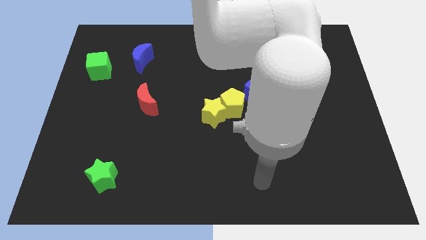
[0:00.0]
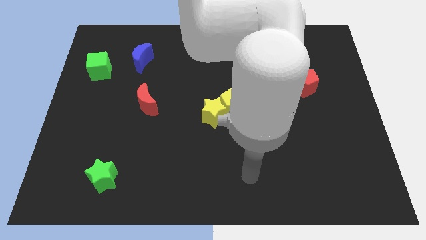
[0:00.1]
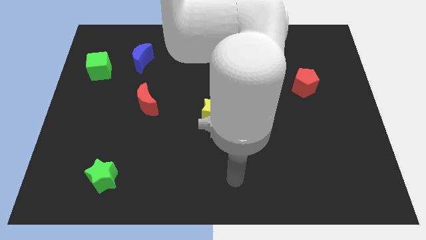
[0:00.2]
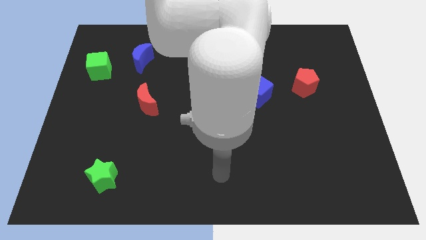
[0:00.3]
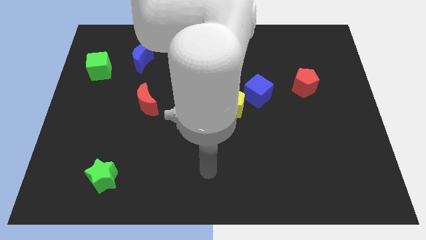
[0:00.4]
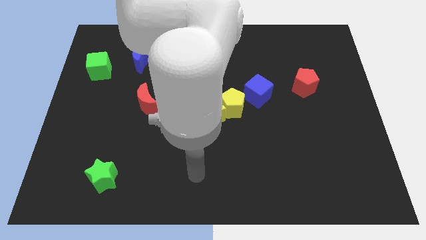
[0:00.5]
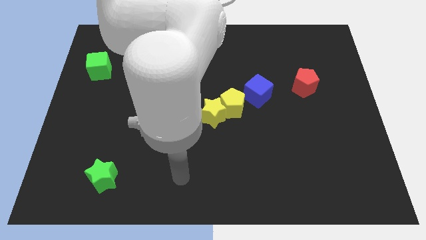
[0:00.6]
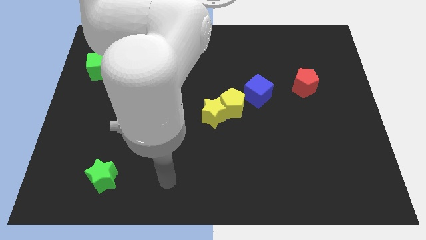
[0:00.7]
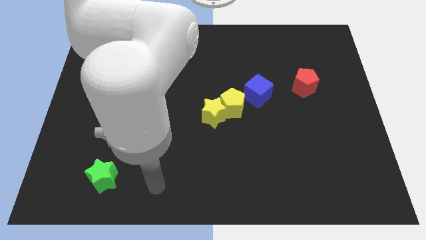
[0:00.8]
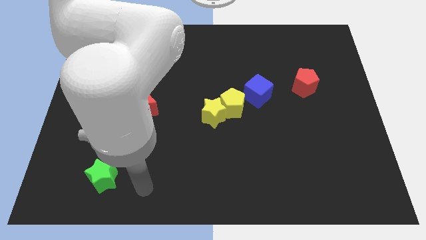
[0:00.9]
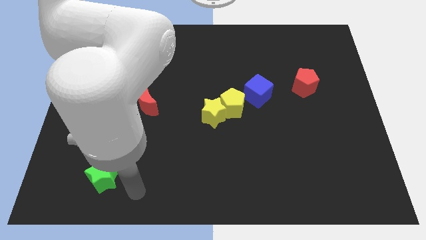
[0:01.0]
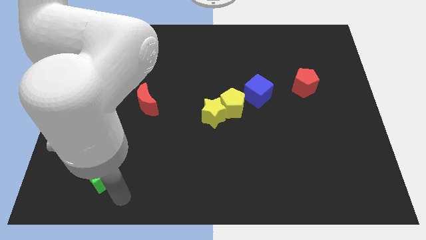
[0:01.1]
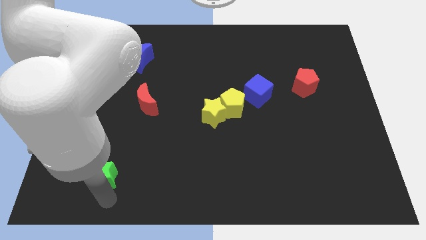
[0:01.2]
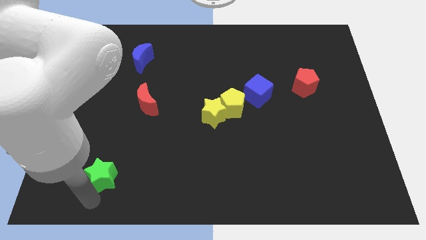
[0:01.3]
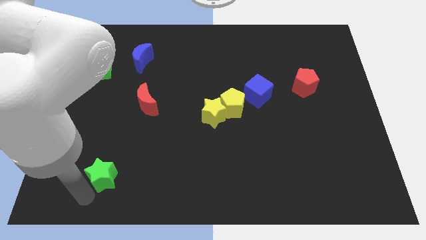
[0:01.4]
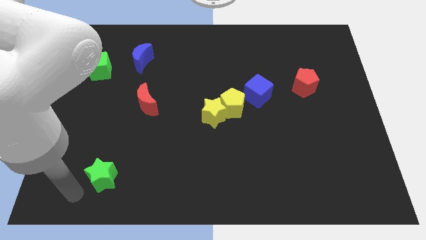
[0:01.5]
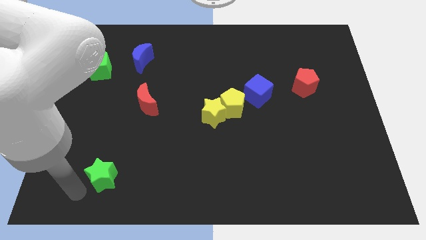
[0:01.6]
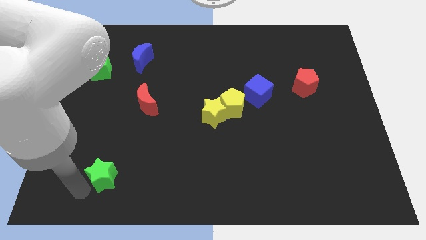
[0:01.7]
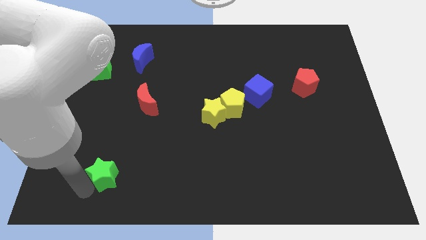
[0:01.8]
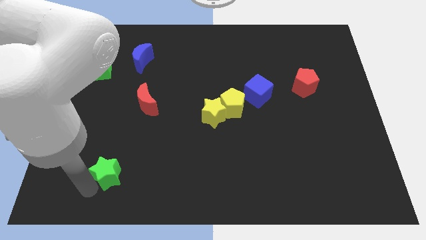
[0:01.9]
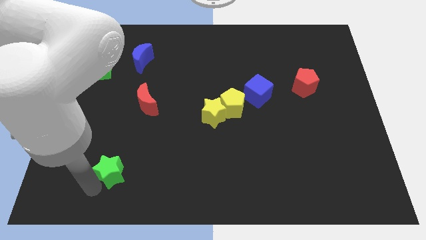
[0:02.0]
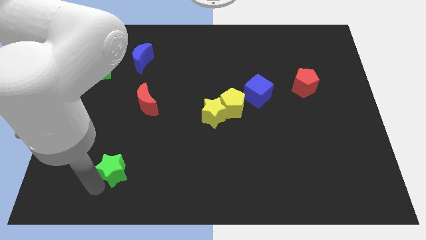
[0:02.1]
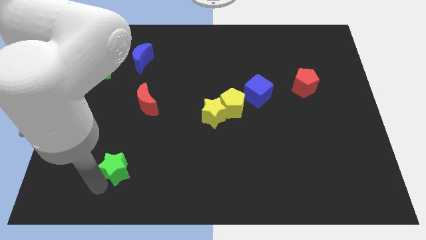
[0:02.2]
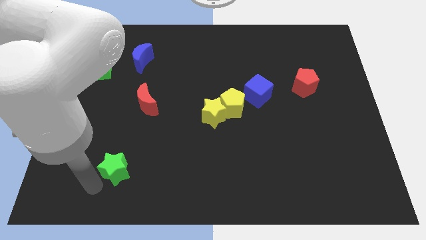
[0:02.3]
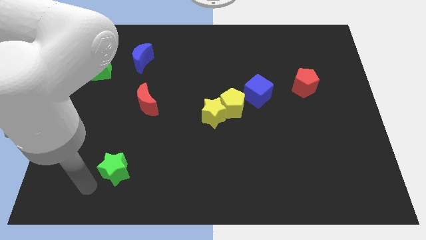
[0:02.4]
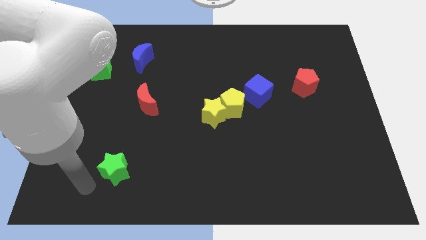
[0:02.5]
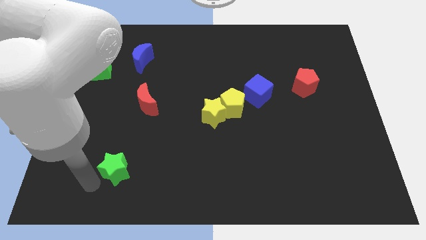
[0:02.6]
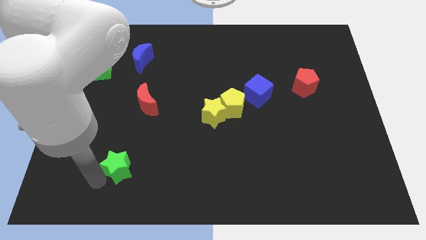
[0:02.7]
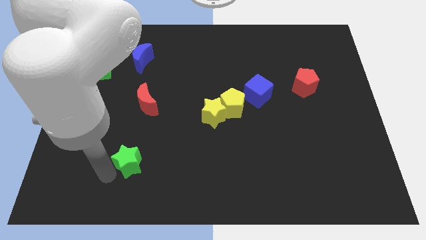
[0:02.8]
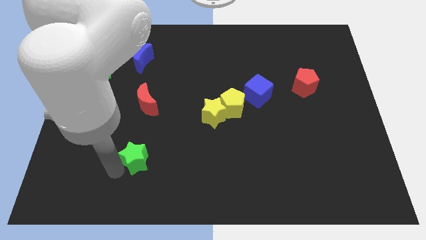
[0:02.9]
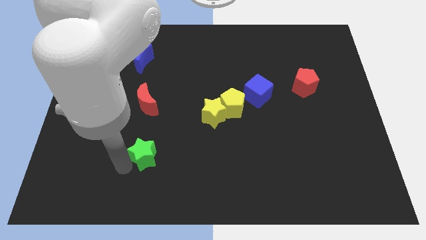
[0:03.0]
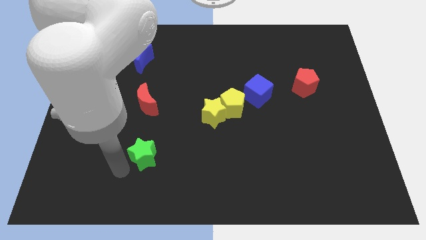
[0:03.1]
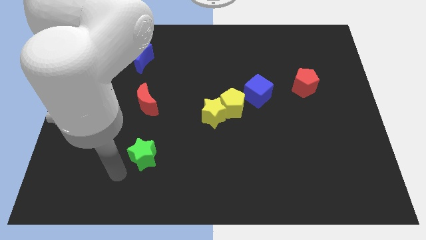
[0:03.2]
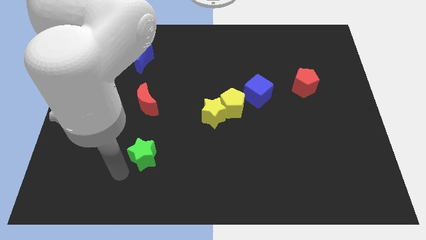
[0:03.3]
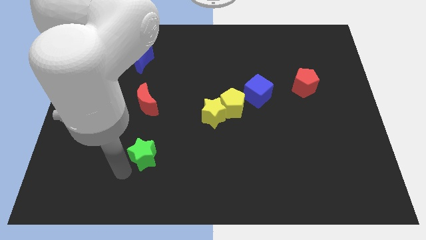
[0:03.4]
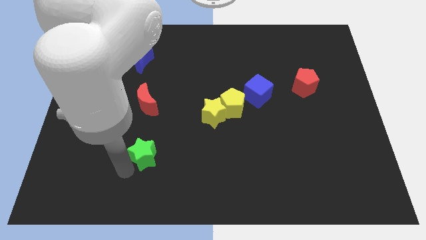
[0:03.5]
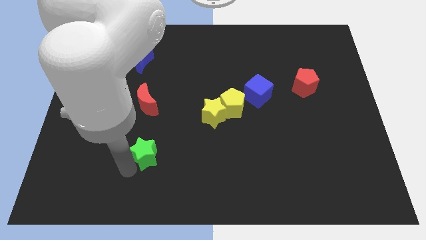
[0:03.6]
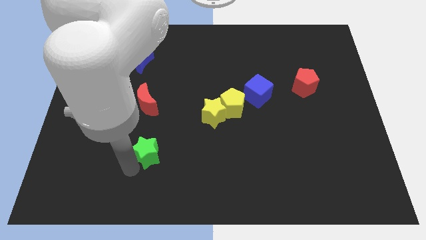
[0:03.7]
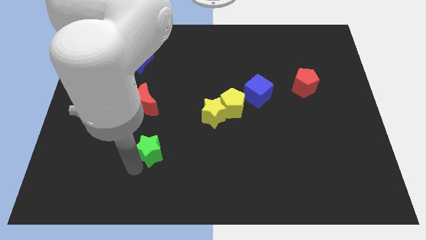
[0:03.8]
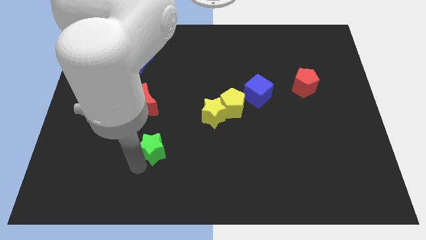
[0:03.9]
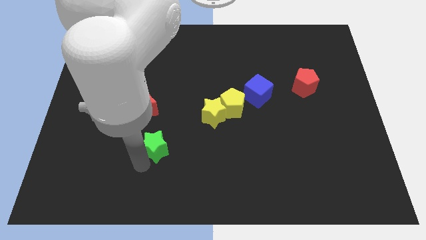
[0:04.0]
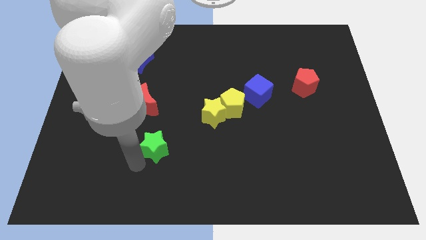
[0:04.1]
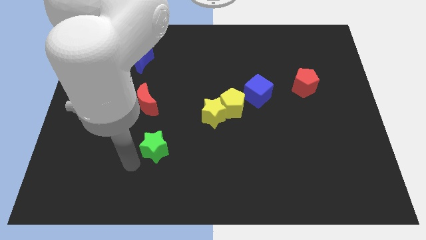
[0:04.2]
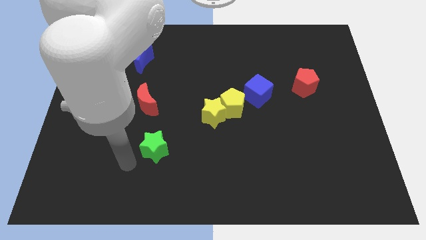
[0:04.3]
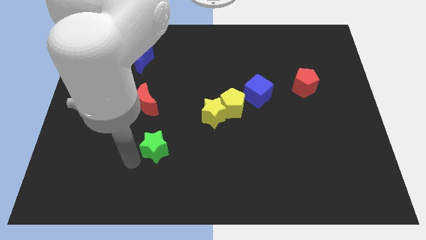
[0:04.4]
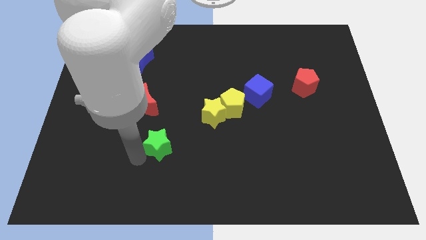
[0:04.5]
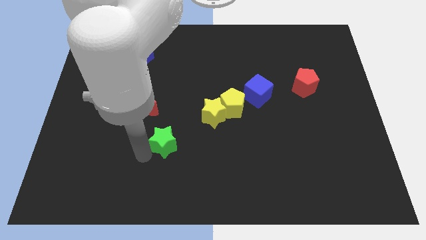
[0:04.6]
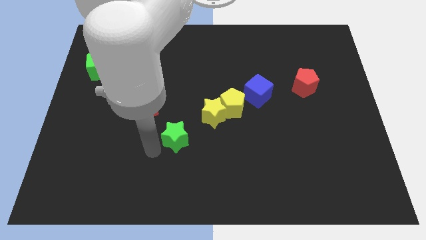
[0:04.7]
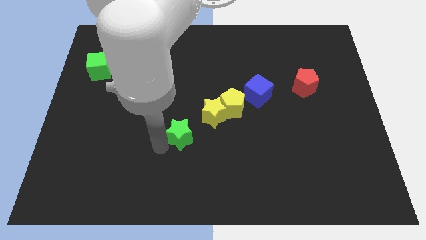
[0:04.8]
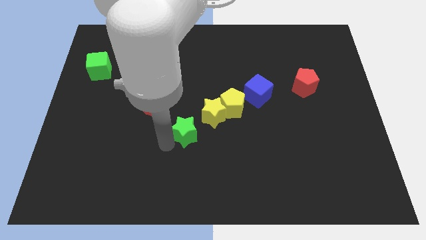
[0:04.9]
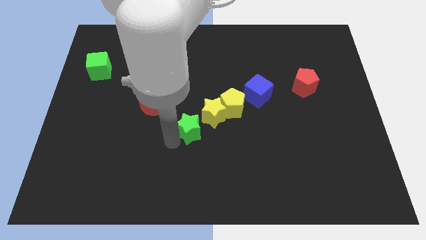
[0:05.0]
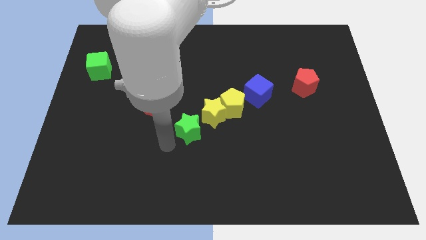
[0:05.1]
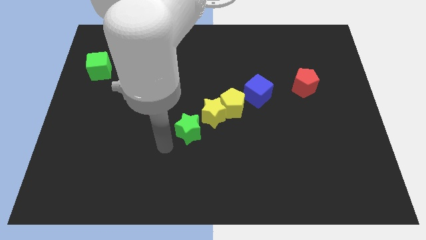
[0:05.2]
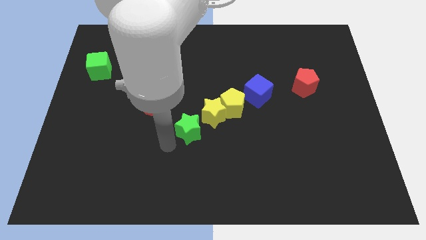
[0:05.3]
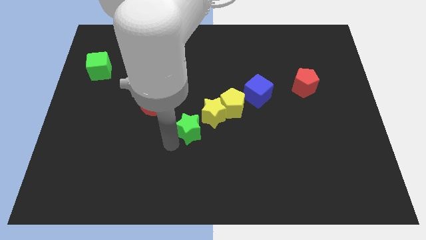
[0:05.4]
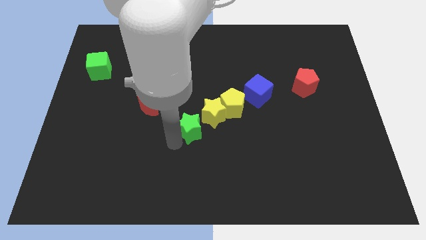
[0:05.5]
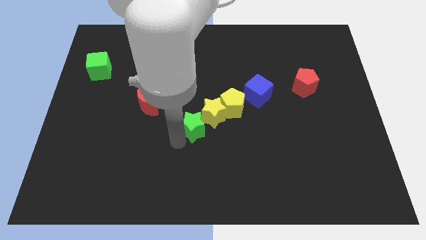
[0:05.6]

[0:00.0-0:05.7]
push the green star towards the yellow star

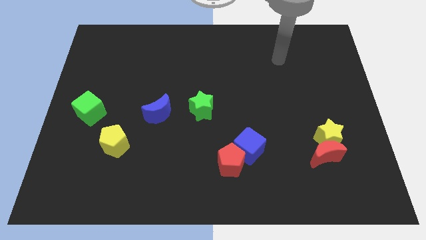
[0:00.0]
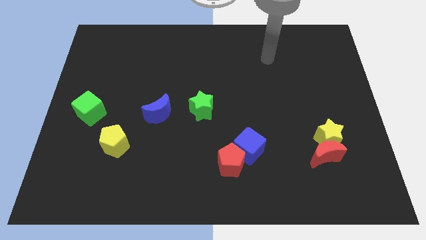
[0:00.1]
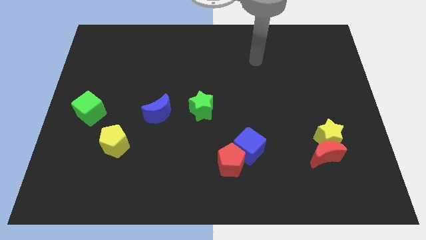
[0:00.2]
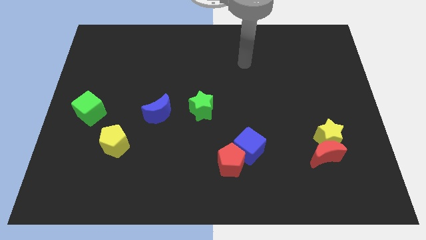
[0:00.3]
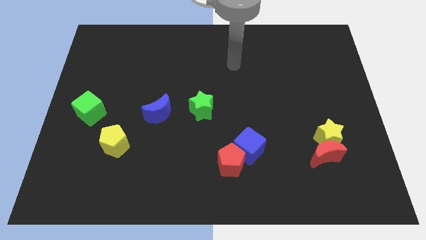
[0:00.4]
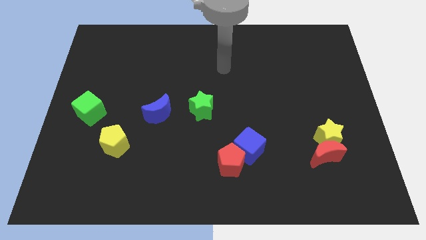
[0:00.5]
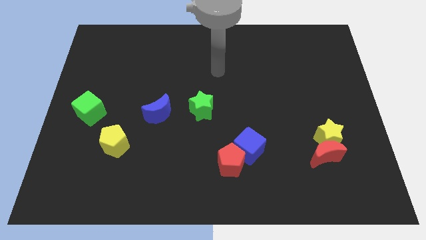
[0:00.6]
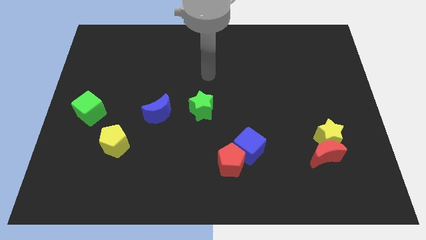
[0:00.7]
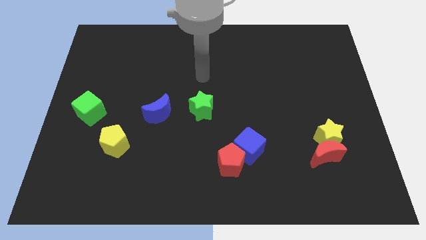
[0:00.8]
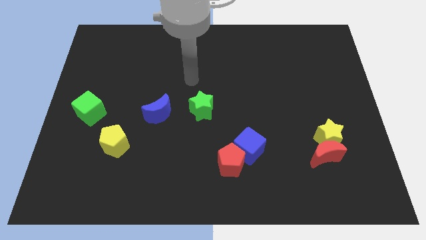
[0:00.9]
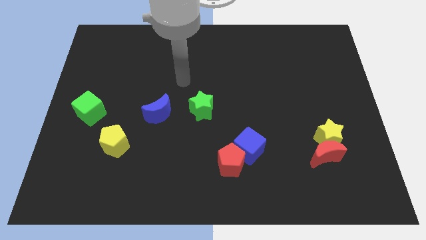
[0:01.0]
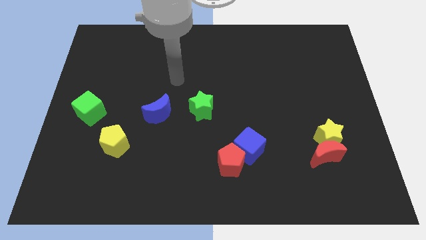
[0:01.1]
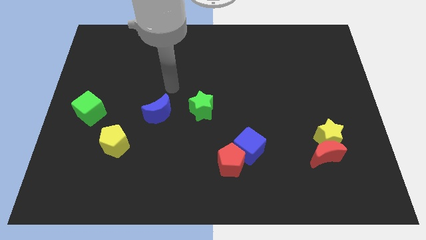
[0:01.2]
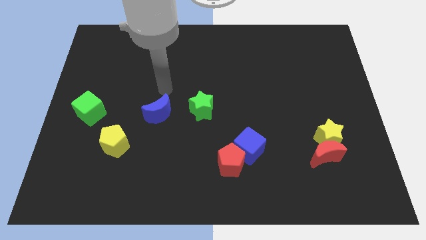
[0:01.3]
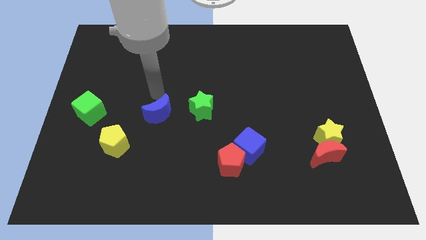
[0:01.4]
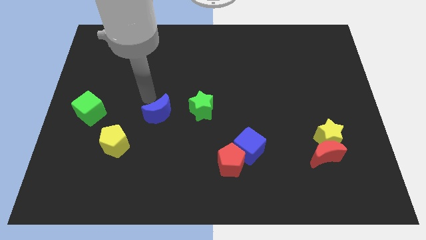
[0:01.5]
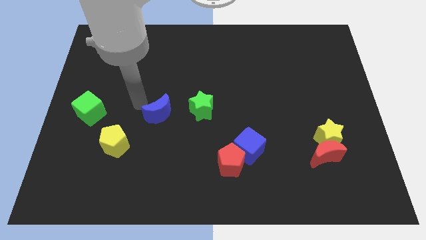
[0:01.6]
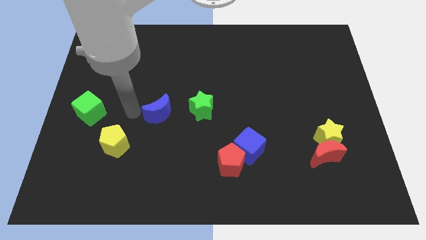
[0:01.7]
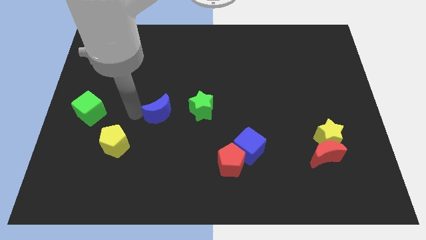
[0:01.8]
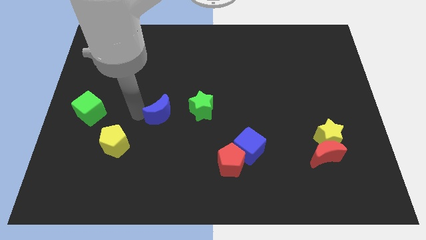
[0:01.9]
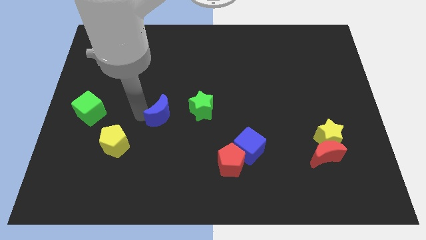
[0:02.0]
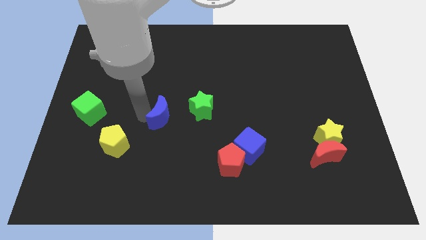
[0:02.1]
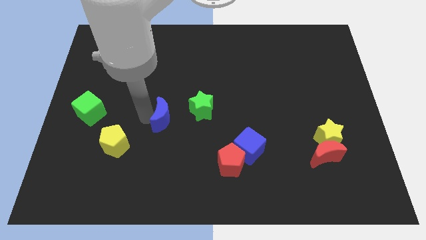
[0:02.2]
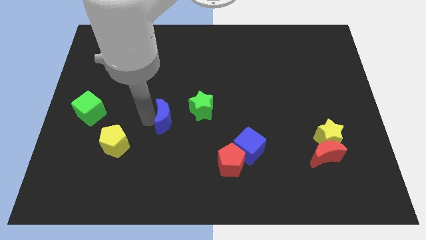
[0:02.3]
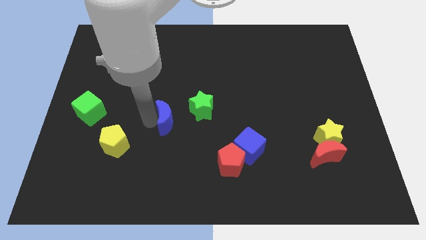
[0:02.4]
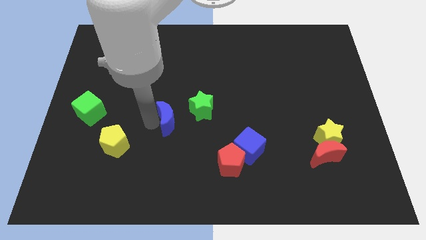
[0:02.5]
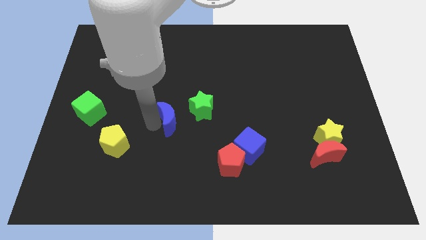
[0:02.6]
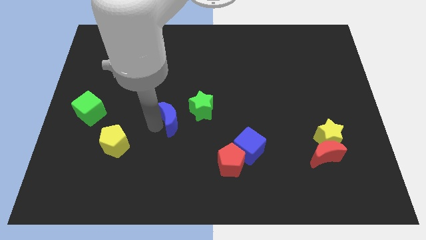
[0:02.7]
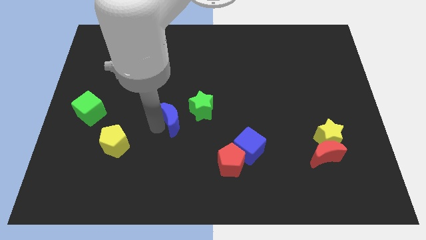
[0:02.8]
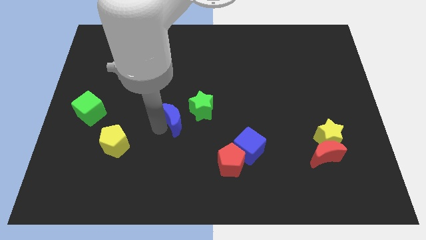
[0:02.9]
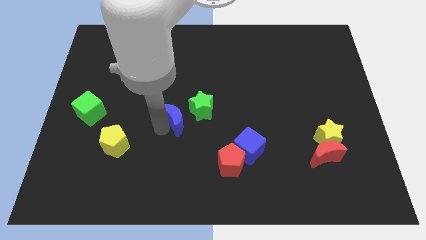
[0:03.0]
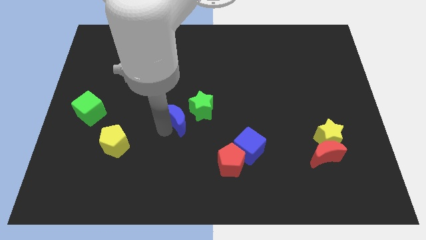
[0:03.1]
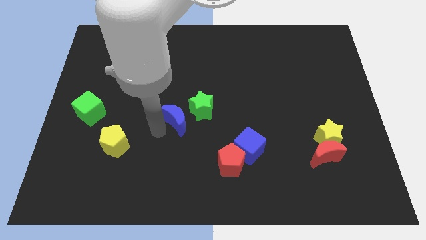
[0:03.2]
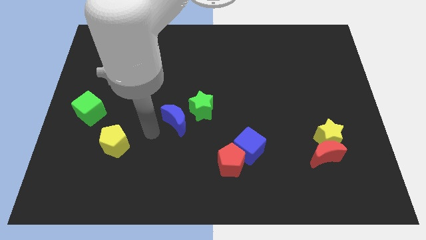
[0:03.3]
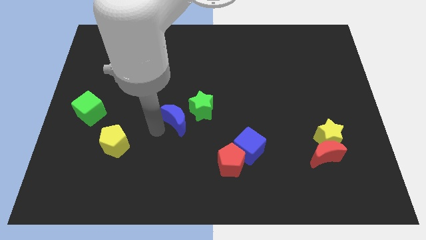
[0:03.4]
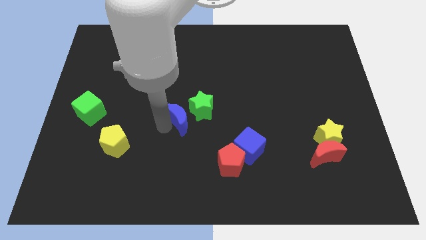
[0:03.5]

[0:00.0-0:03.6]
put the blue moon towards the green star
